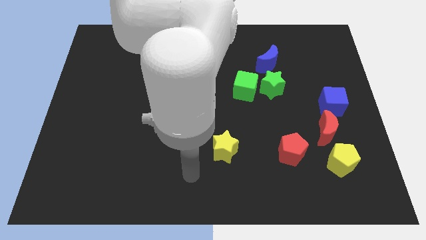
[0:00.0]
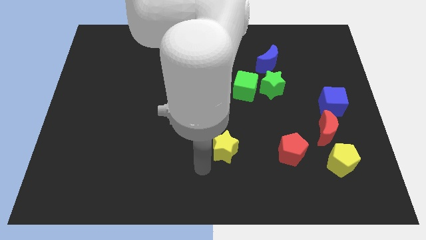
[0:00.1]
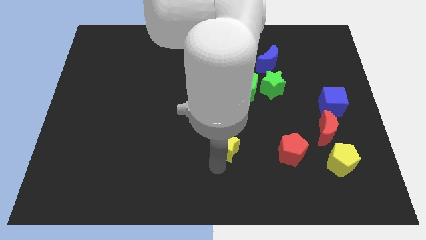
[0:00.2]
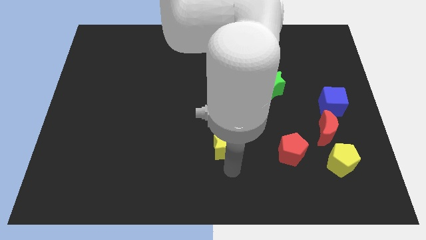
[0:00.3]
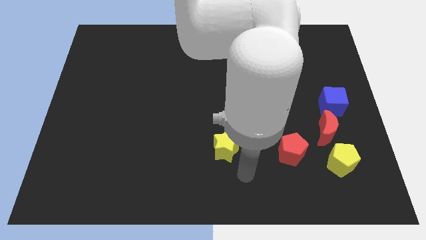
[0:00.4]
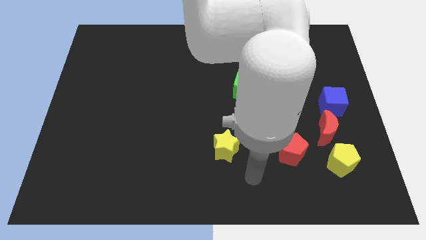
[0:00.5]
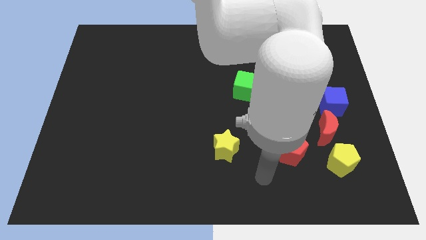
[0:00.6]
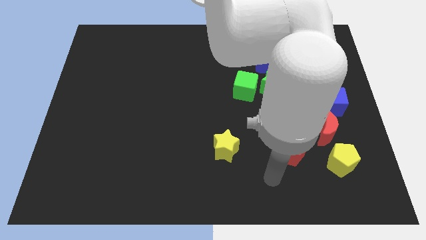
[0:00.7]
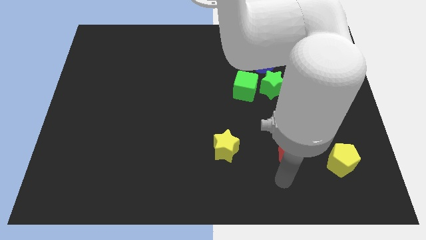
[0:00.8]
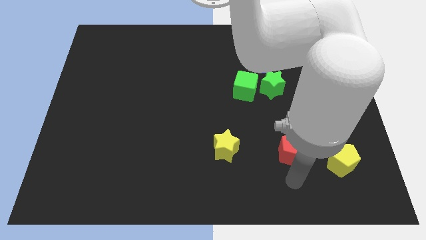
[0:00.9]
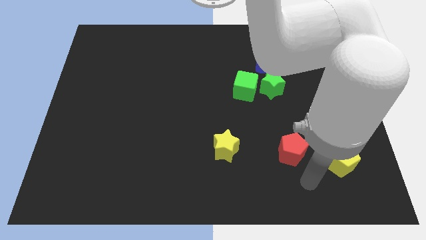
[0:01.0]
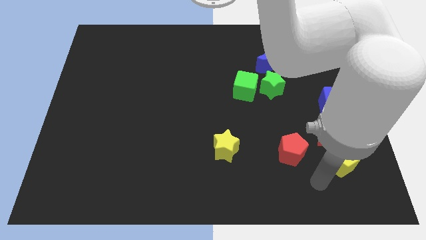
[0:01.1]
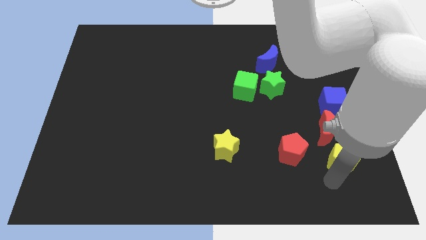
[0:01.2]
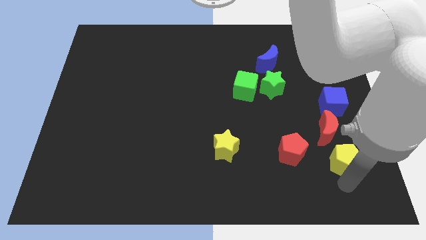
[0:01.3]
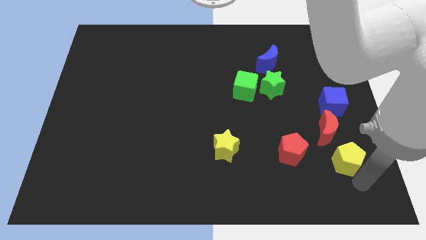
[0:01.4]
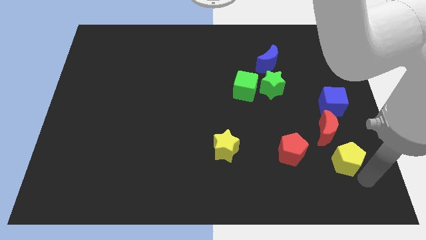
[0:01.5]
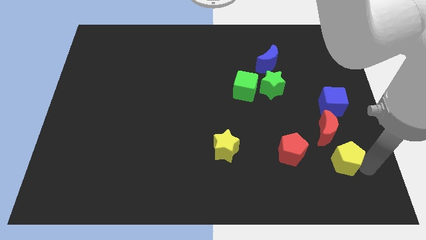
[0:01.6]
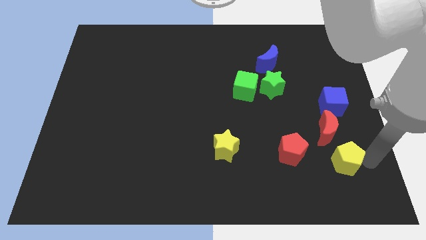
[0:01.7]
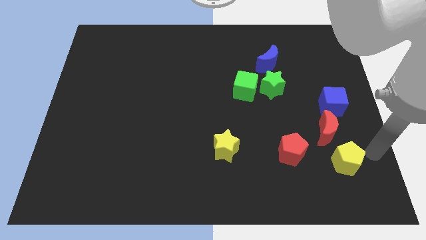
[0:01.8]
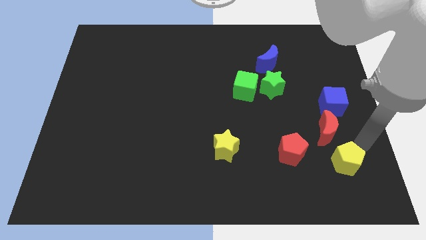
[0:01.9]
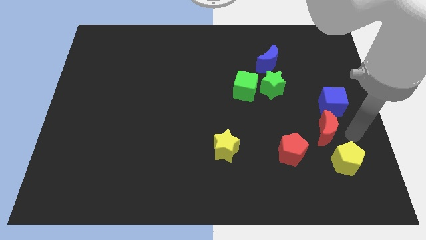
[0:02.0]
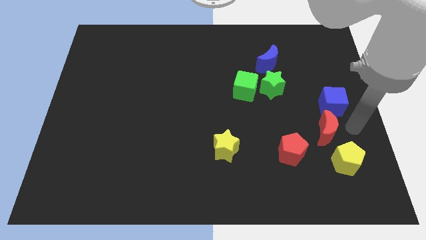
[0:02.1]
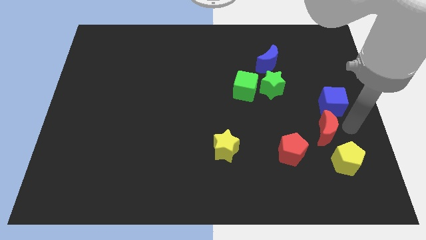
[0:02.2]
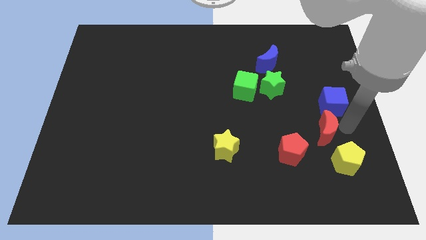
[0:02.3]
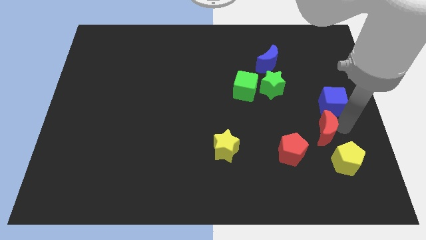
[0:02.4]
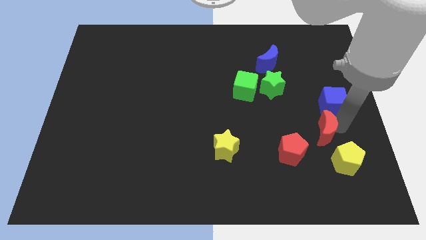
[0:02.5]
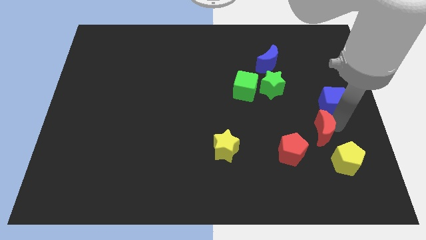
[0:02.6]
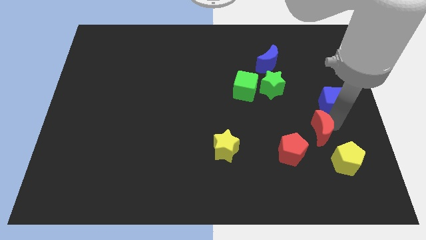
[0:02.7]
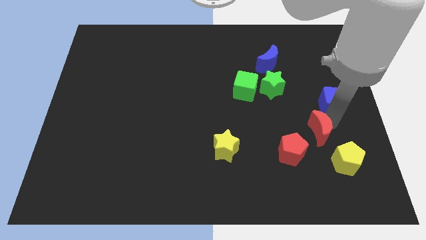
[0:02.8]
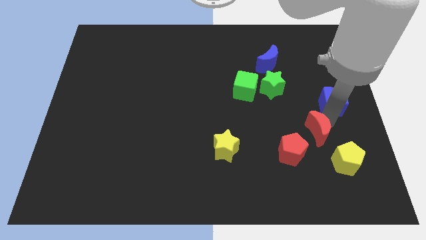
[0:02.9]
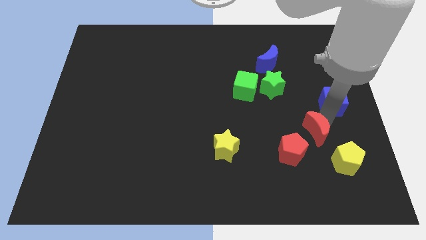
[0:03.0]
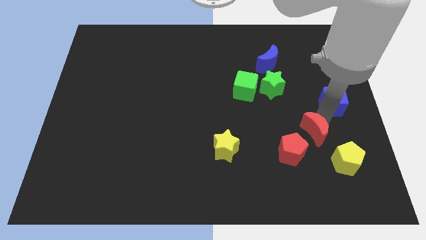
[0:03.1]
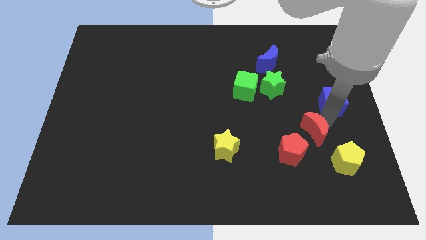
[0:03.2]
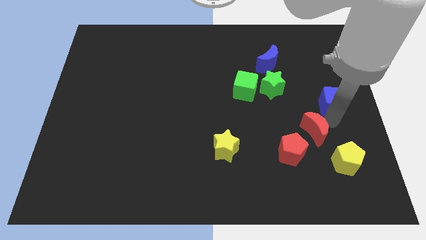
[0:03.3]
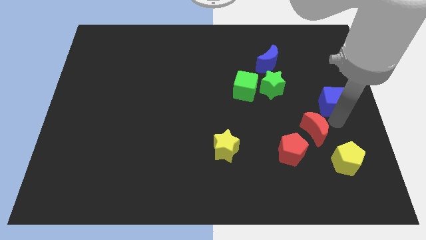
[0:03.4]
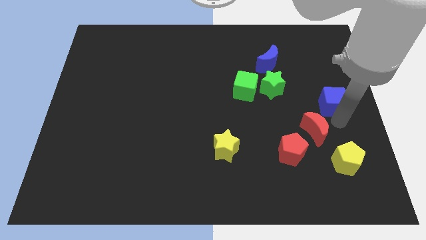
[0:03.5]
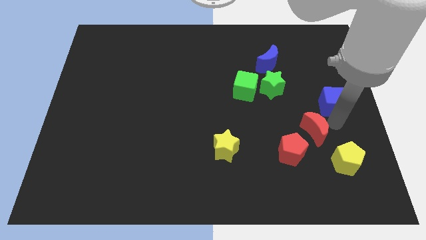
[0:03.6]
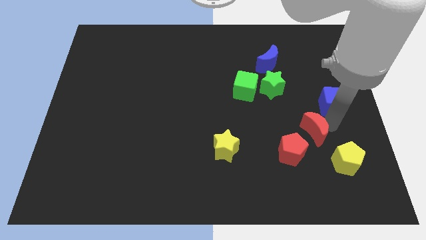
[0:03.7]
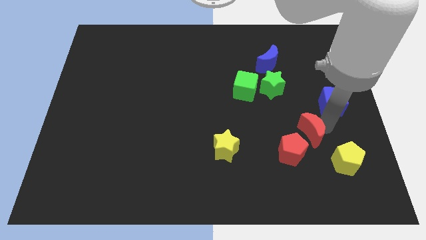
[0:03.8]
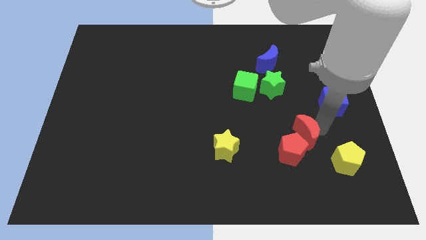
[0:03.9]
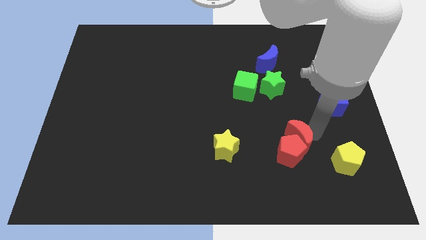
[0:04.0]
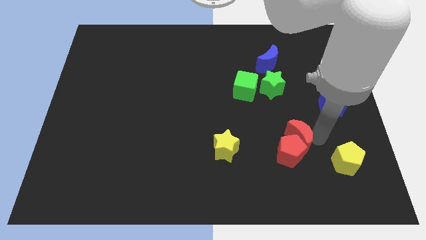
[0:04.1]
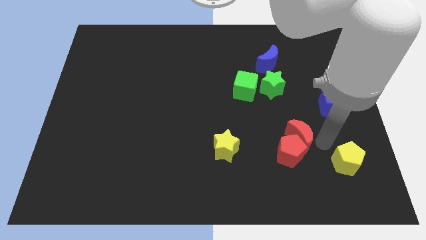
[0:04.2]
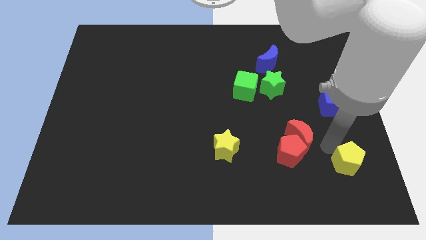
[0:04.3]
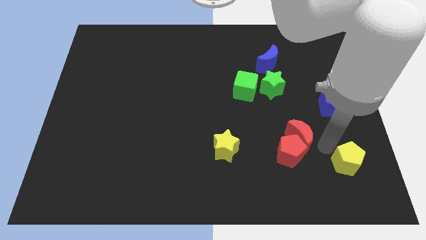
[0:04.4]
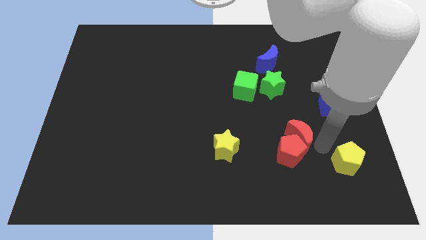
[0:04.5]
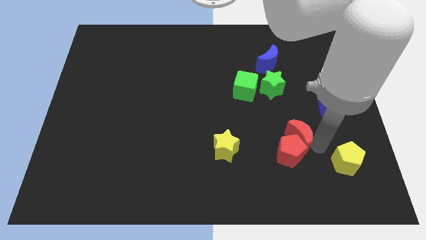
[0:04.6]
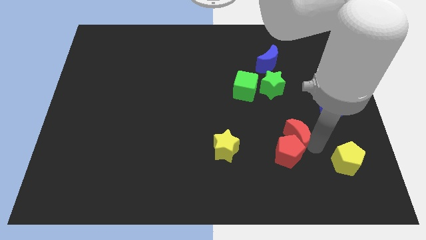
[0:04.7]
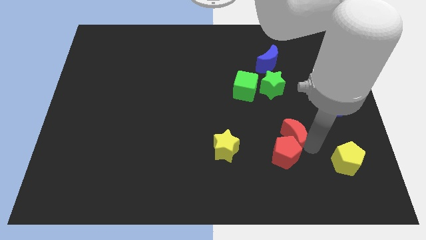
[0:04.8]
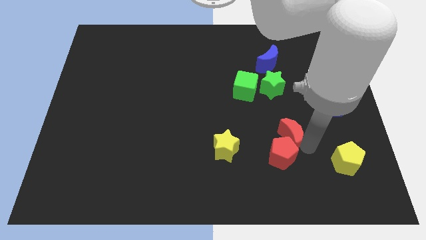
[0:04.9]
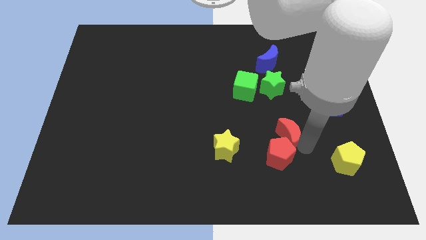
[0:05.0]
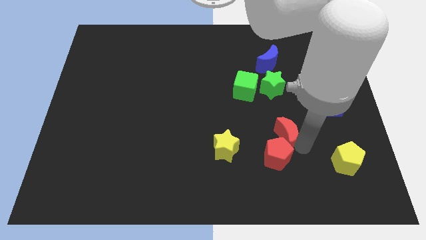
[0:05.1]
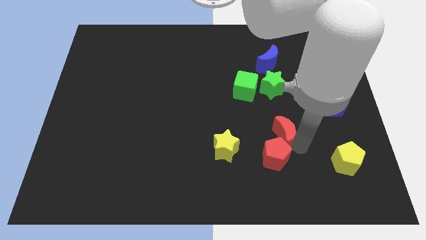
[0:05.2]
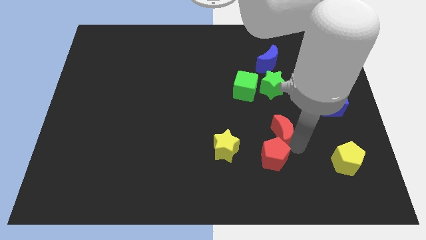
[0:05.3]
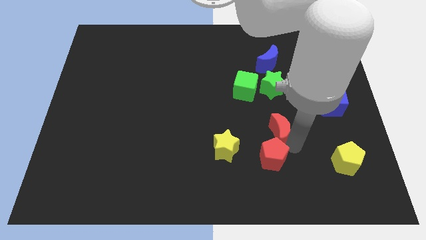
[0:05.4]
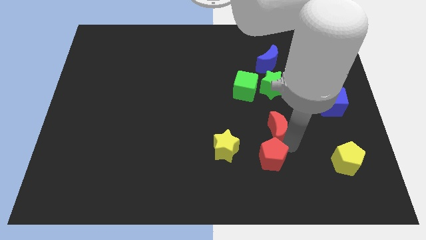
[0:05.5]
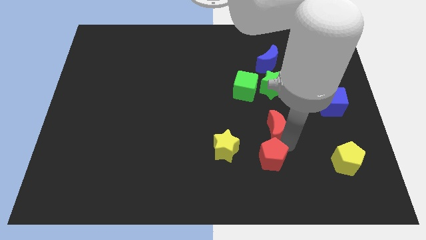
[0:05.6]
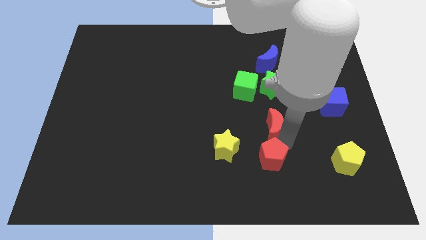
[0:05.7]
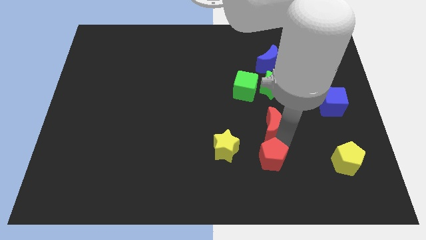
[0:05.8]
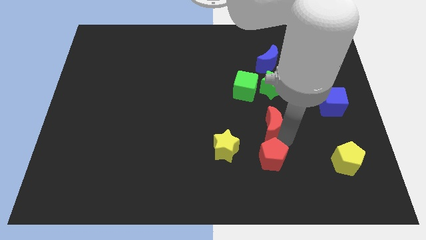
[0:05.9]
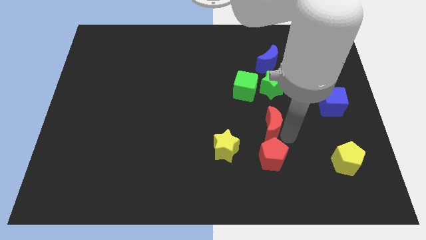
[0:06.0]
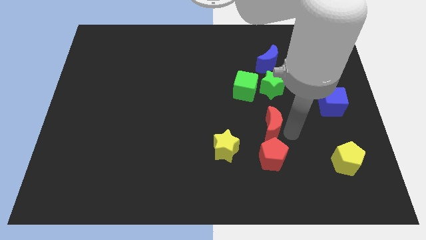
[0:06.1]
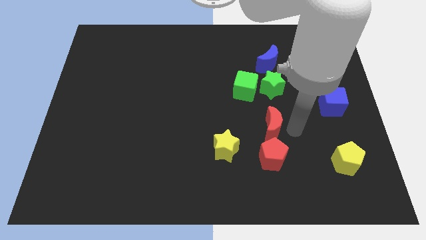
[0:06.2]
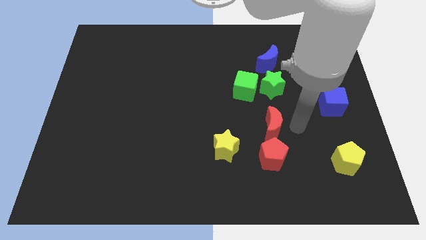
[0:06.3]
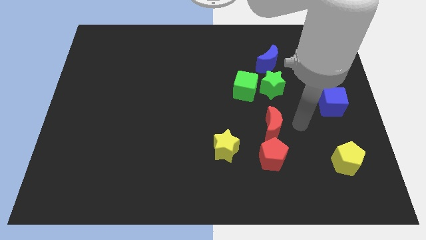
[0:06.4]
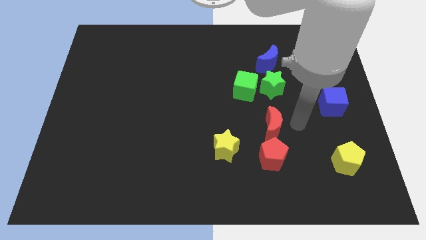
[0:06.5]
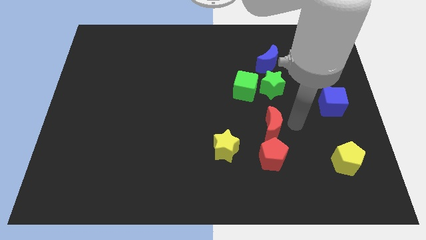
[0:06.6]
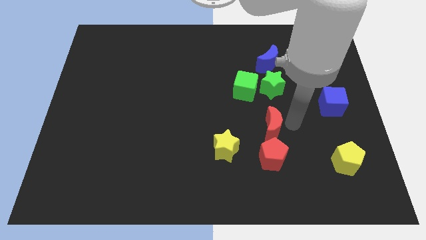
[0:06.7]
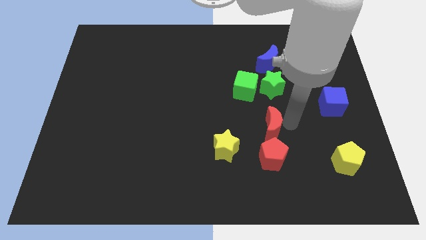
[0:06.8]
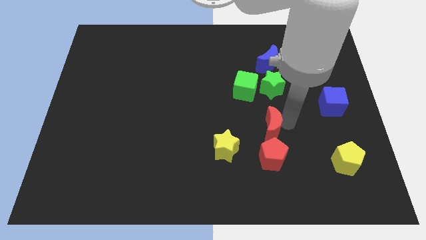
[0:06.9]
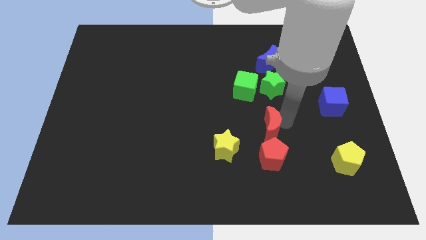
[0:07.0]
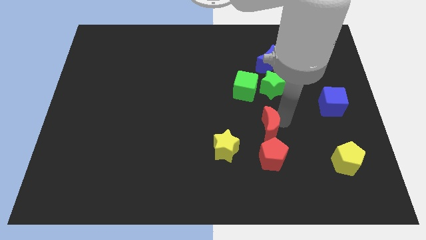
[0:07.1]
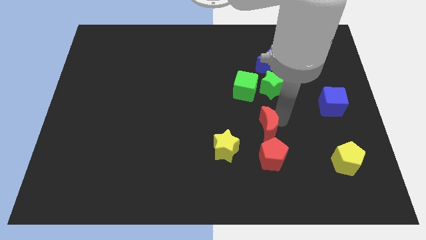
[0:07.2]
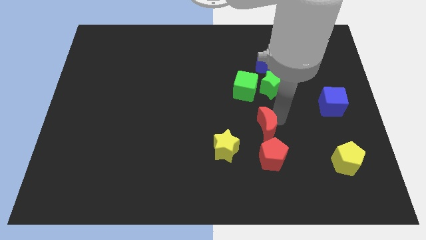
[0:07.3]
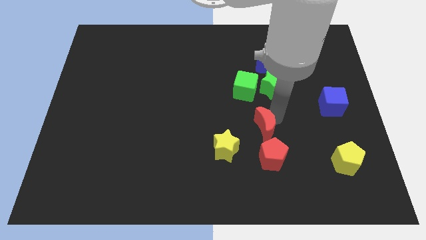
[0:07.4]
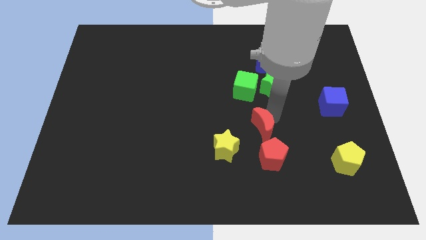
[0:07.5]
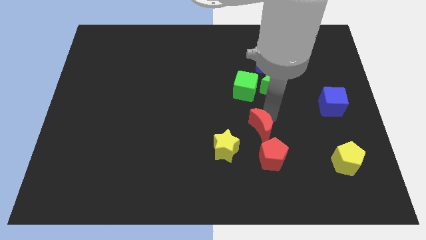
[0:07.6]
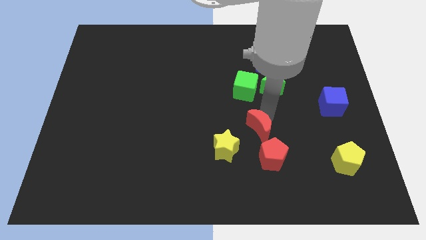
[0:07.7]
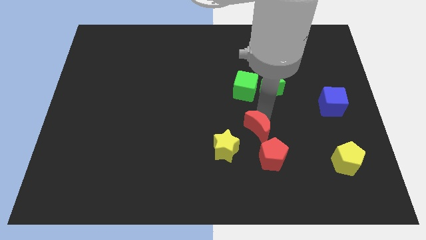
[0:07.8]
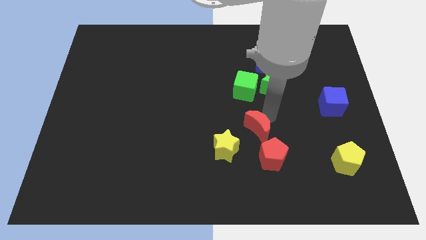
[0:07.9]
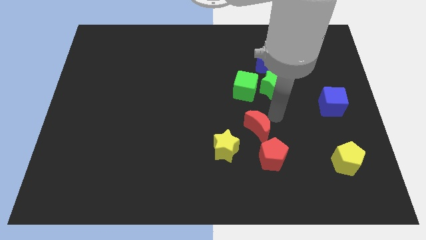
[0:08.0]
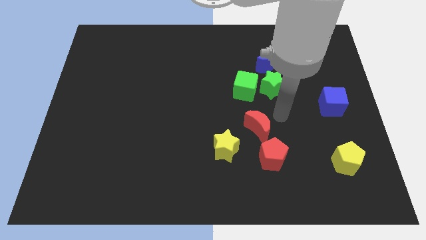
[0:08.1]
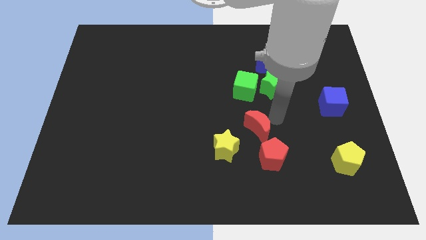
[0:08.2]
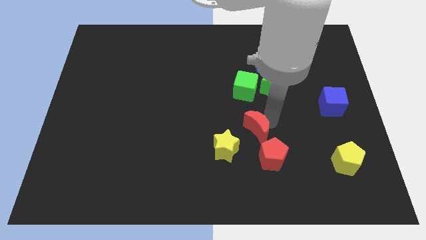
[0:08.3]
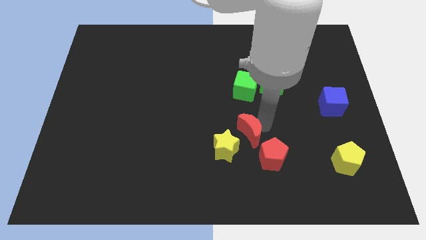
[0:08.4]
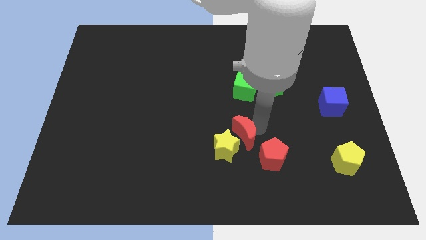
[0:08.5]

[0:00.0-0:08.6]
slide the red moon close to the yellow star
